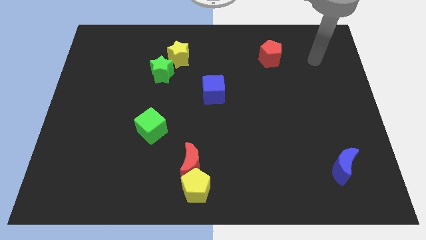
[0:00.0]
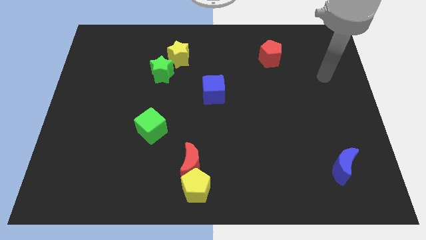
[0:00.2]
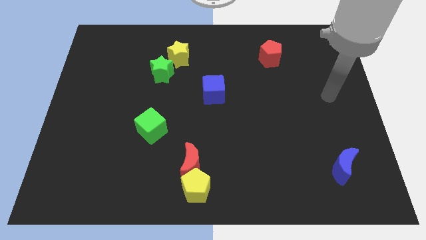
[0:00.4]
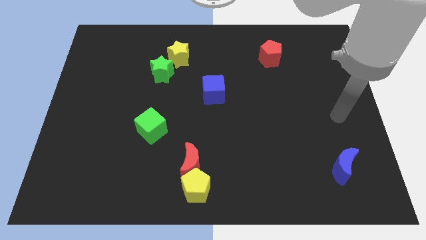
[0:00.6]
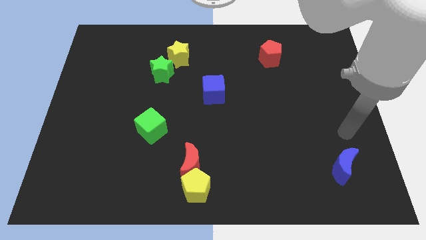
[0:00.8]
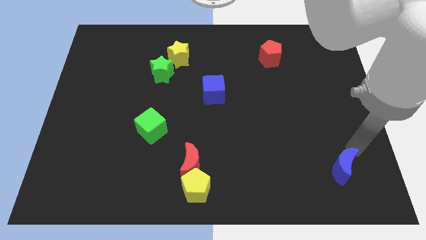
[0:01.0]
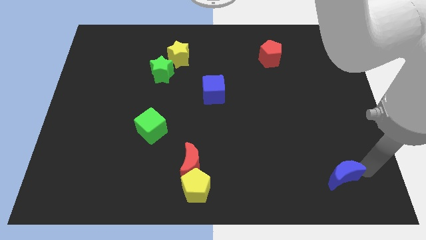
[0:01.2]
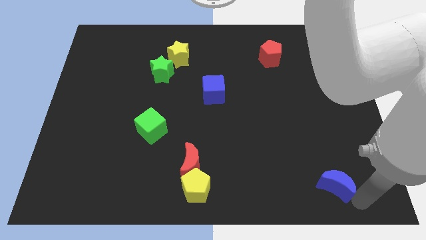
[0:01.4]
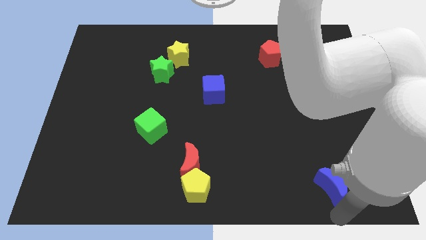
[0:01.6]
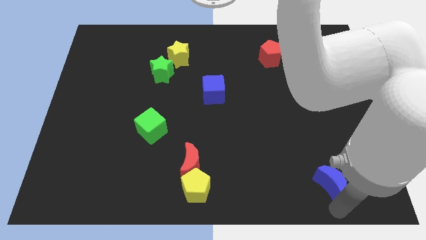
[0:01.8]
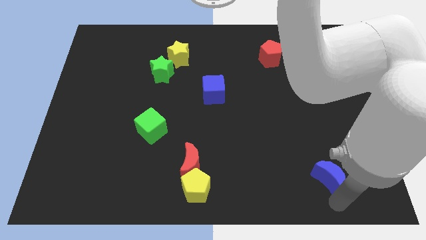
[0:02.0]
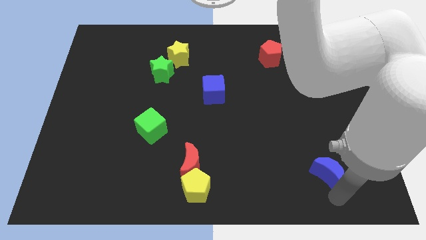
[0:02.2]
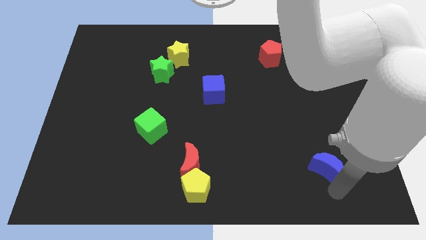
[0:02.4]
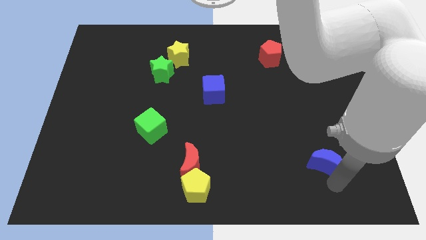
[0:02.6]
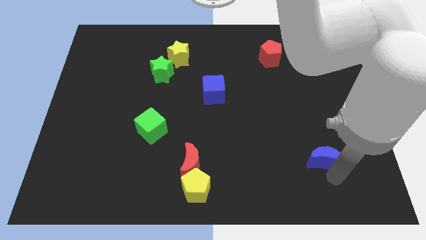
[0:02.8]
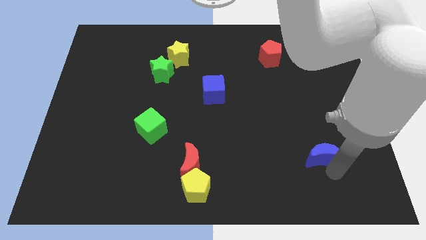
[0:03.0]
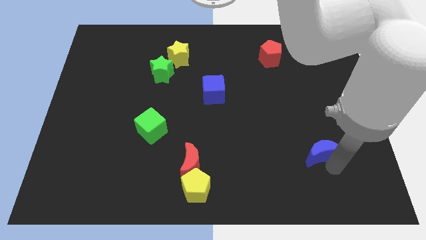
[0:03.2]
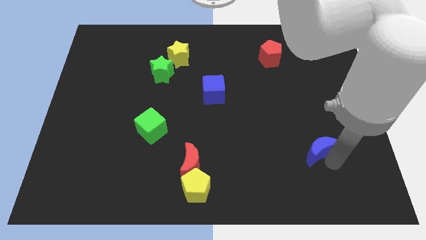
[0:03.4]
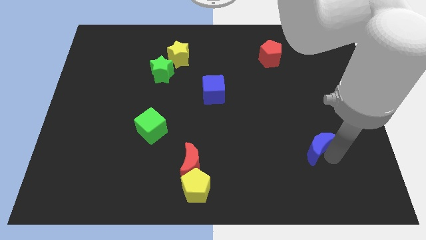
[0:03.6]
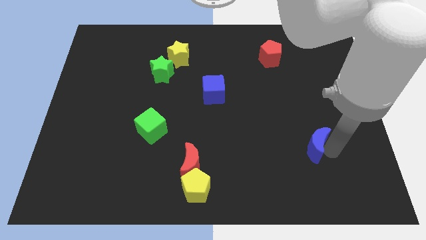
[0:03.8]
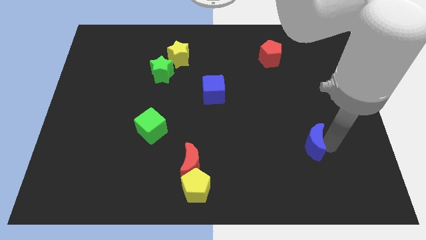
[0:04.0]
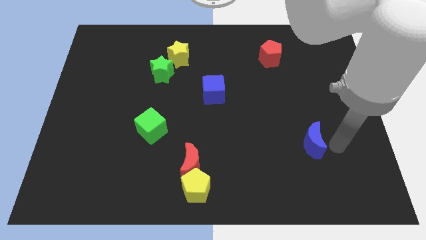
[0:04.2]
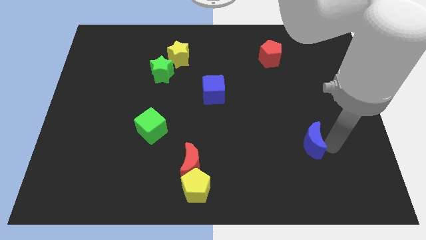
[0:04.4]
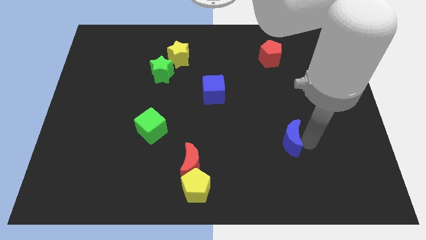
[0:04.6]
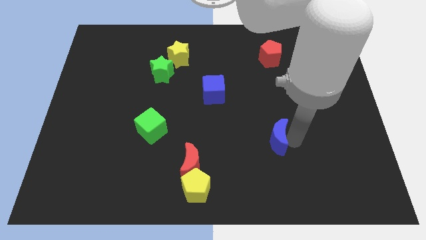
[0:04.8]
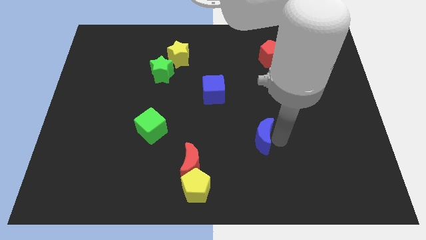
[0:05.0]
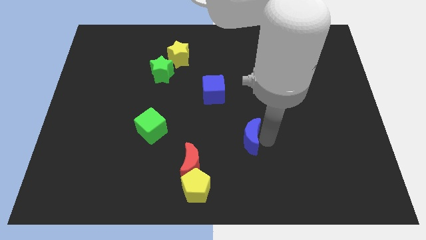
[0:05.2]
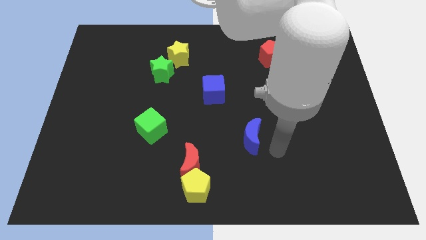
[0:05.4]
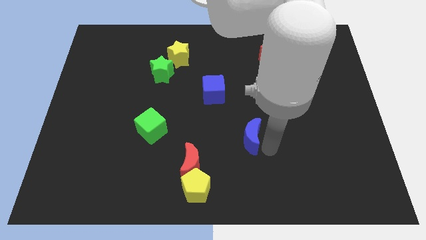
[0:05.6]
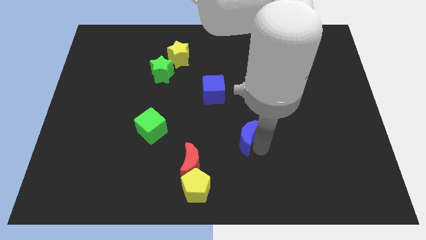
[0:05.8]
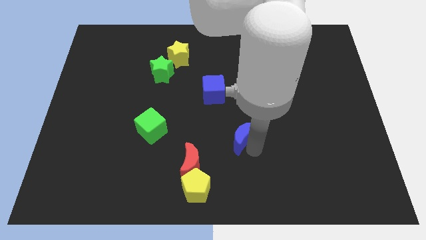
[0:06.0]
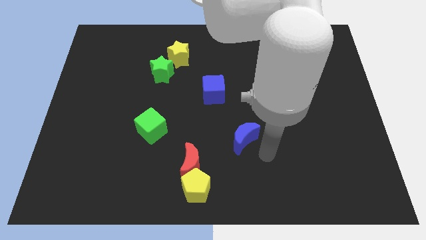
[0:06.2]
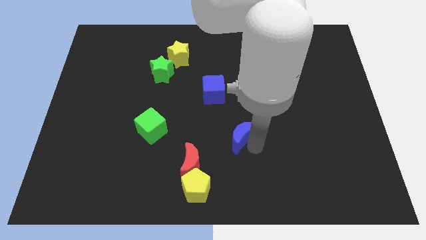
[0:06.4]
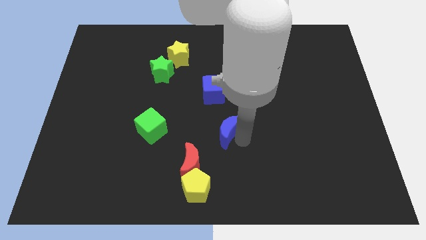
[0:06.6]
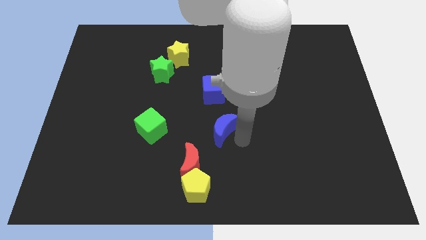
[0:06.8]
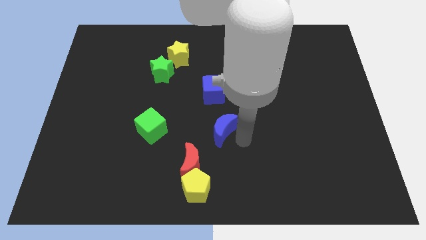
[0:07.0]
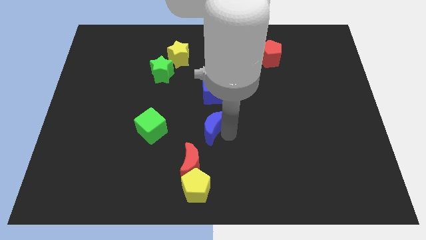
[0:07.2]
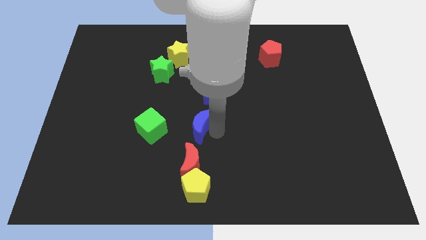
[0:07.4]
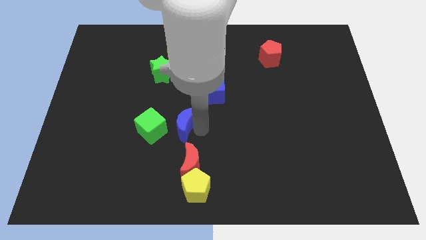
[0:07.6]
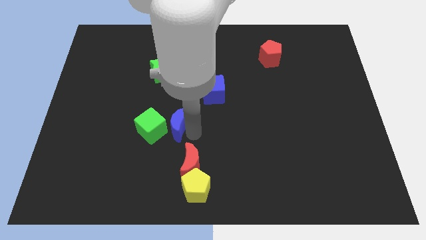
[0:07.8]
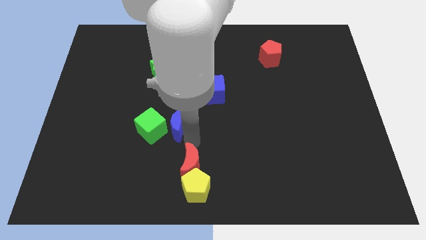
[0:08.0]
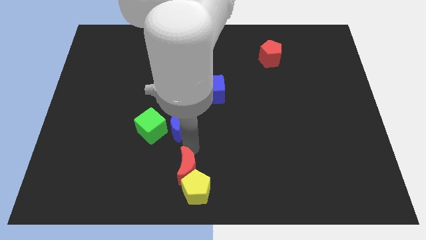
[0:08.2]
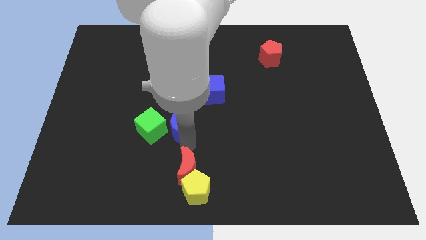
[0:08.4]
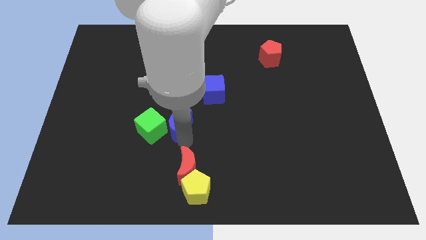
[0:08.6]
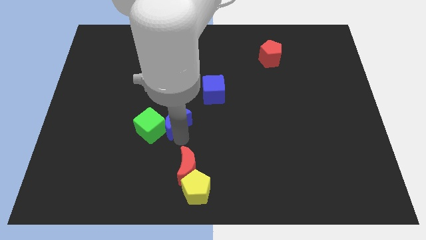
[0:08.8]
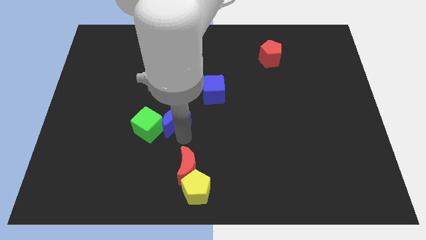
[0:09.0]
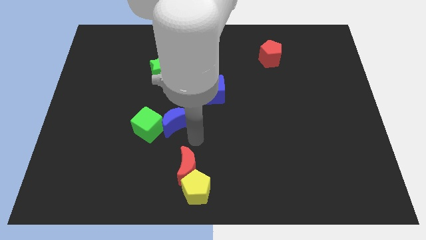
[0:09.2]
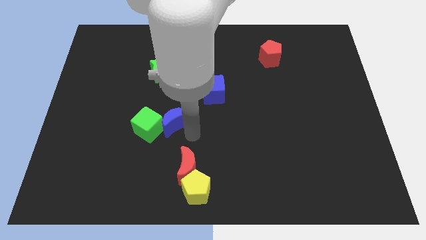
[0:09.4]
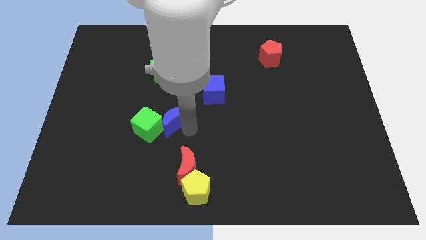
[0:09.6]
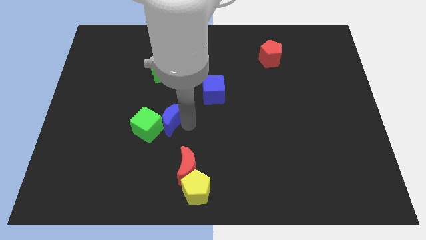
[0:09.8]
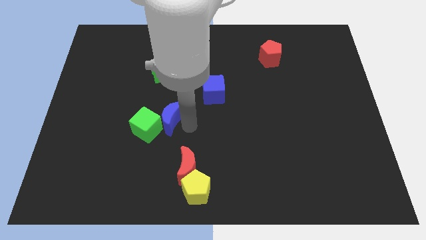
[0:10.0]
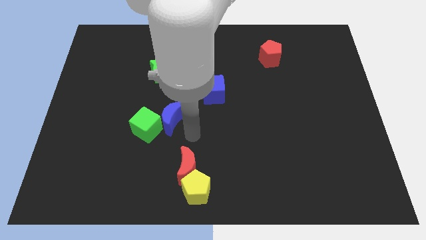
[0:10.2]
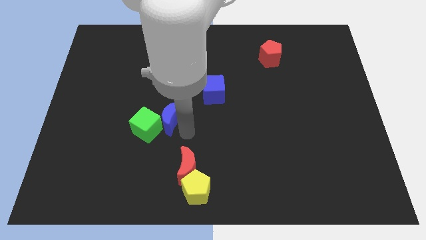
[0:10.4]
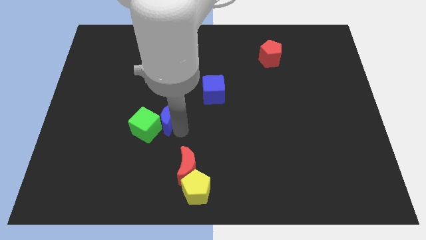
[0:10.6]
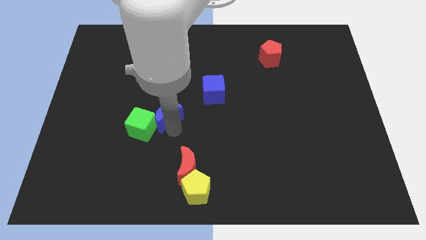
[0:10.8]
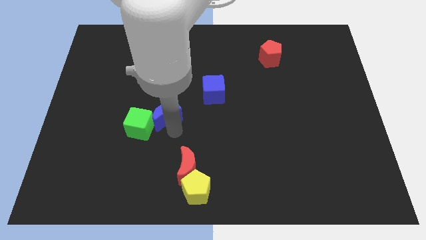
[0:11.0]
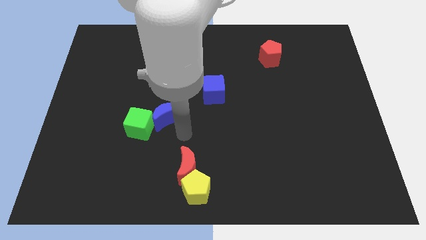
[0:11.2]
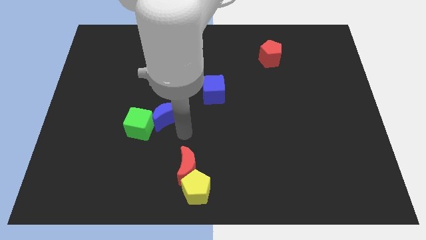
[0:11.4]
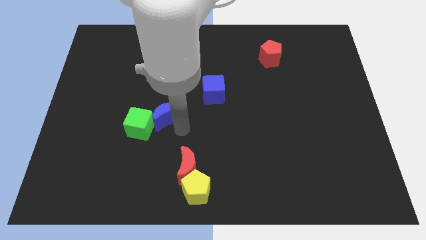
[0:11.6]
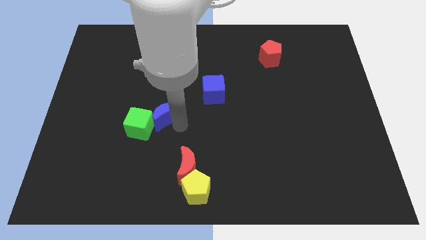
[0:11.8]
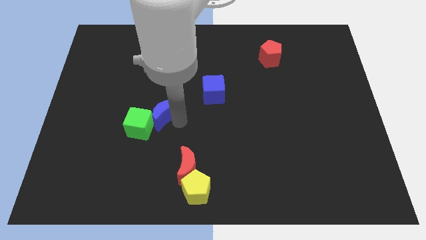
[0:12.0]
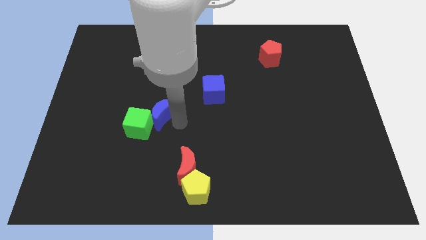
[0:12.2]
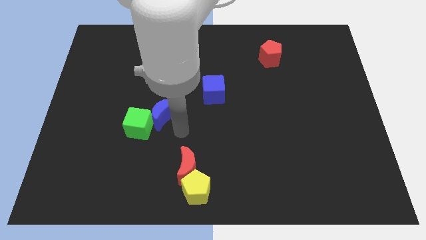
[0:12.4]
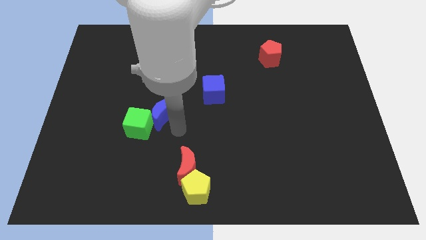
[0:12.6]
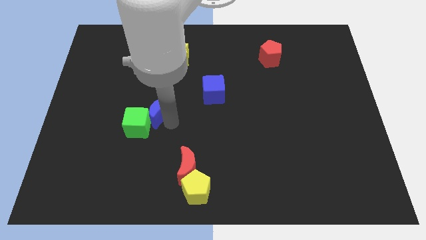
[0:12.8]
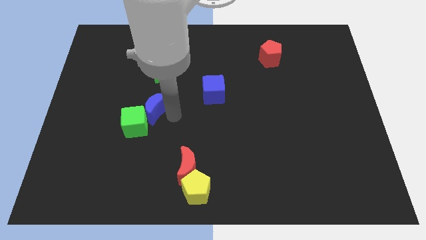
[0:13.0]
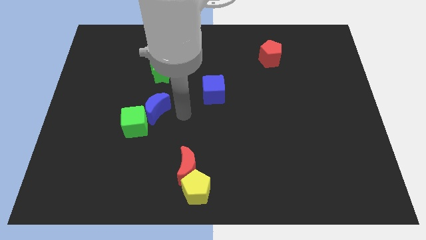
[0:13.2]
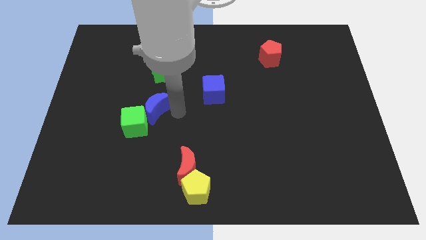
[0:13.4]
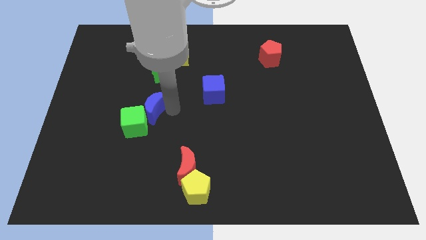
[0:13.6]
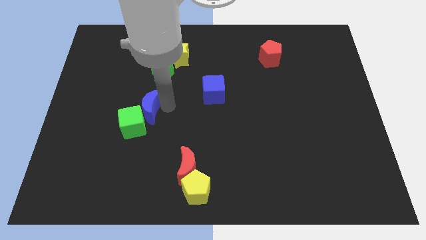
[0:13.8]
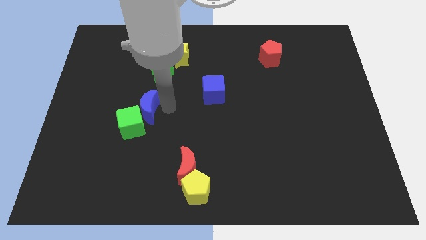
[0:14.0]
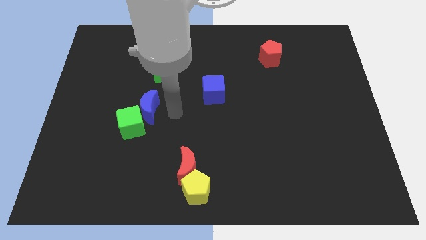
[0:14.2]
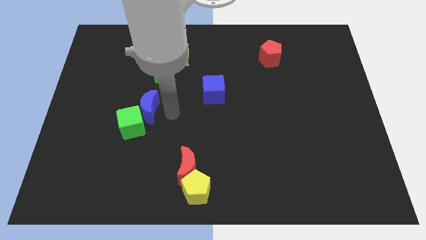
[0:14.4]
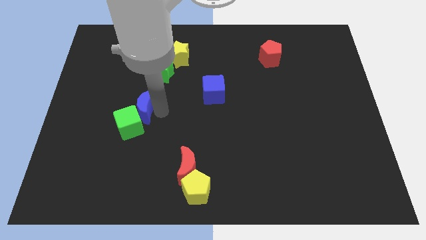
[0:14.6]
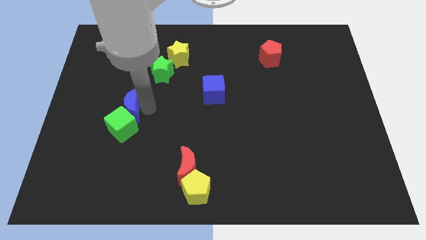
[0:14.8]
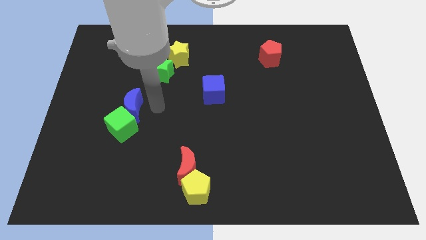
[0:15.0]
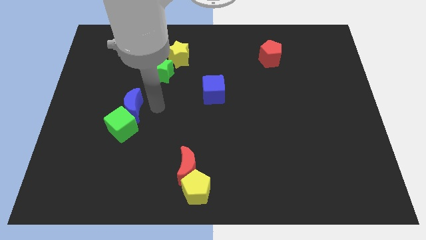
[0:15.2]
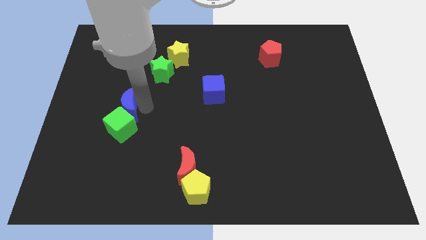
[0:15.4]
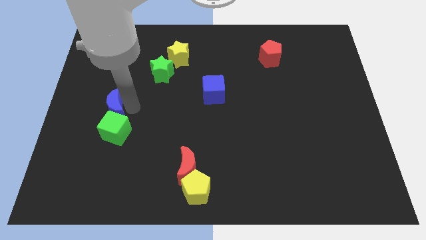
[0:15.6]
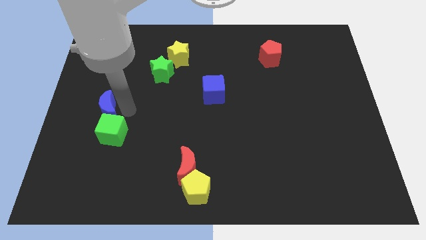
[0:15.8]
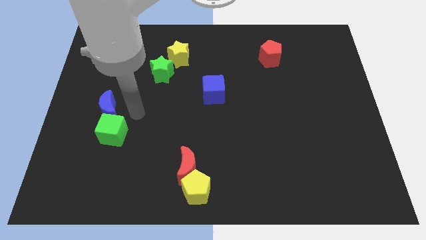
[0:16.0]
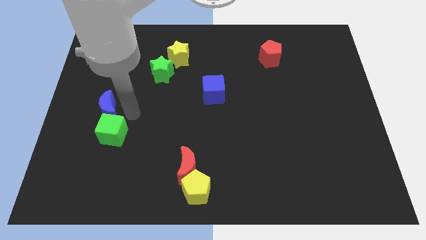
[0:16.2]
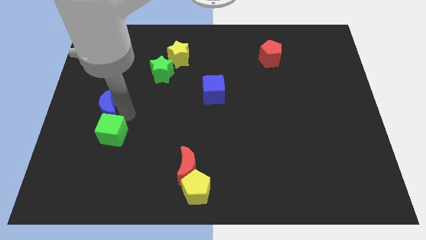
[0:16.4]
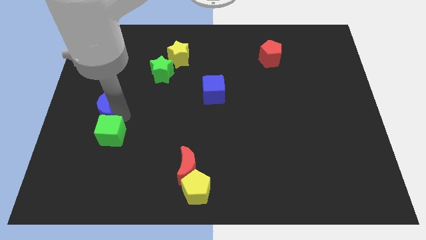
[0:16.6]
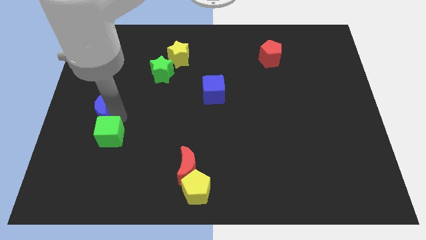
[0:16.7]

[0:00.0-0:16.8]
slide the blue moon to the left side of the board
